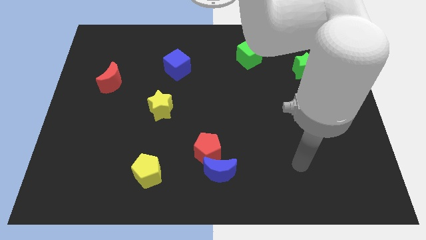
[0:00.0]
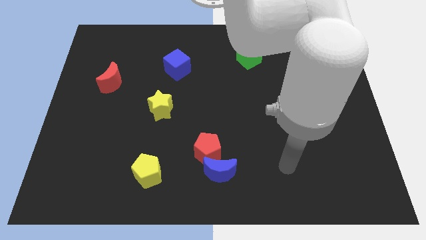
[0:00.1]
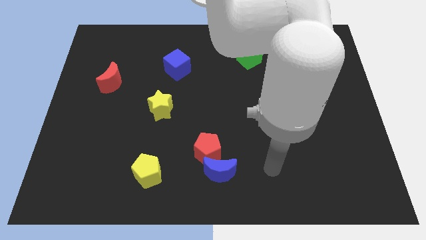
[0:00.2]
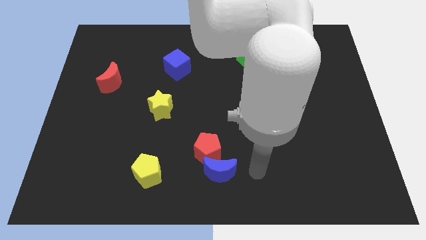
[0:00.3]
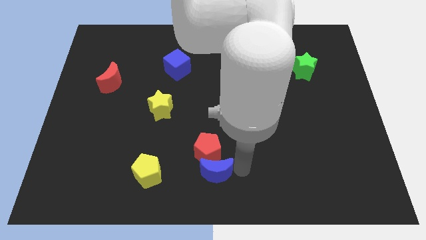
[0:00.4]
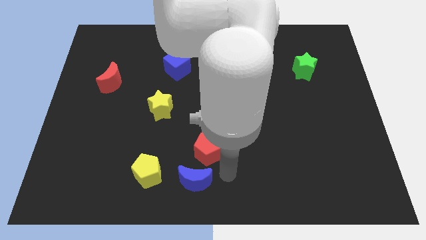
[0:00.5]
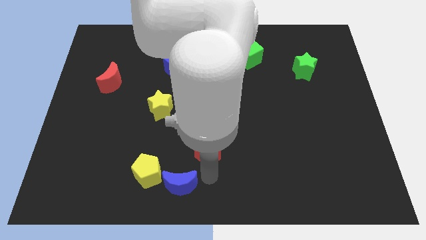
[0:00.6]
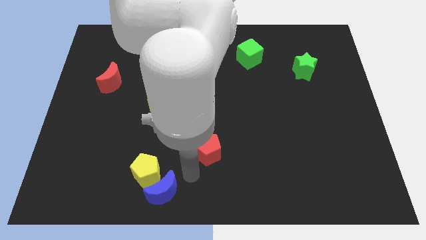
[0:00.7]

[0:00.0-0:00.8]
pull the red pentagon apart from the blue moon

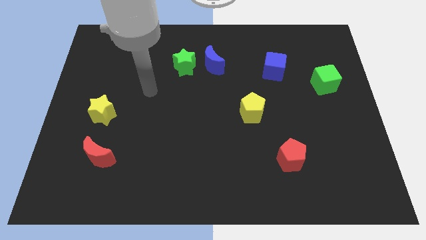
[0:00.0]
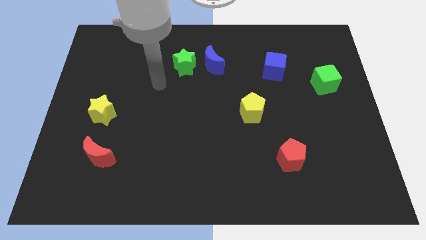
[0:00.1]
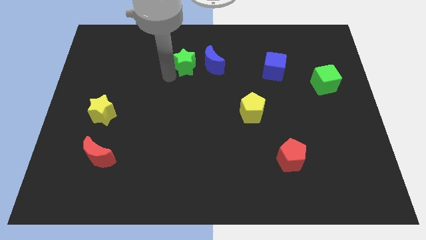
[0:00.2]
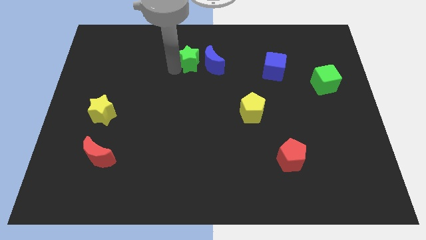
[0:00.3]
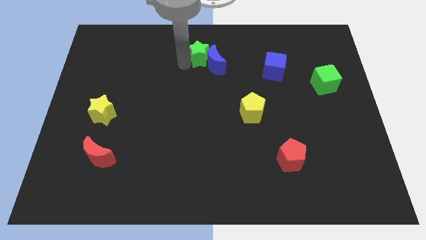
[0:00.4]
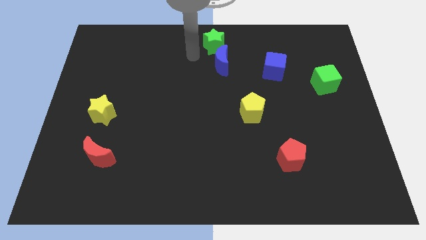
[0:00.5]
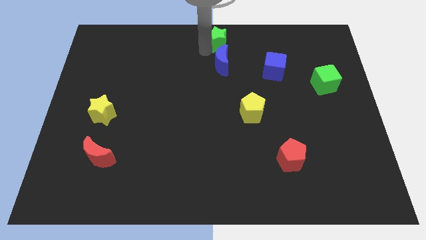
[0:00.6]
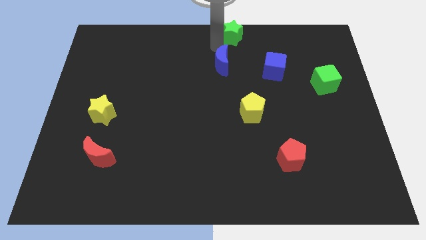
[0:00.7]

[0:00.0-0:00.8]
pull the blue moon apart from the green star

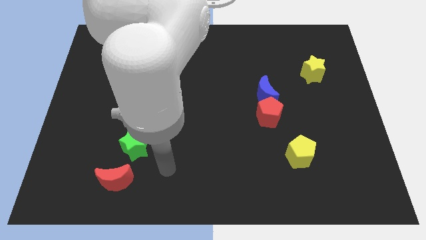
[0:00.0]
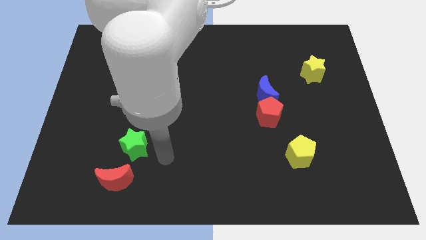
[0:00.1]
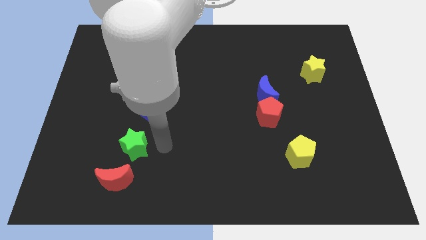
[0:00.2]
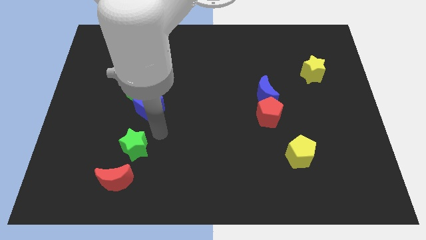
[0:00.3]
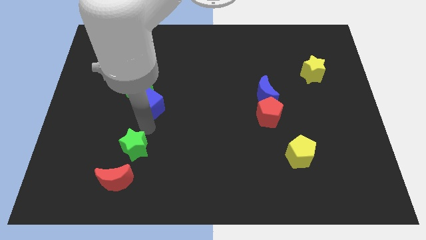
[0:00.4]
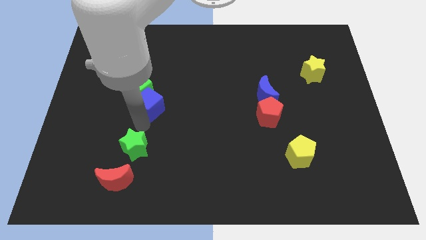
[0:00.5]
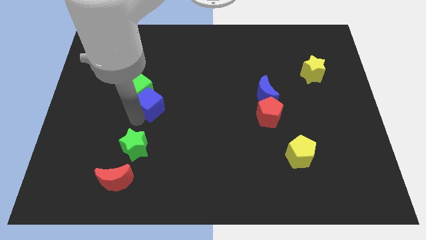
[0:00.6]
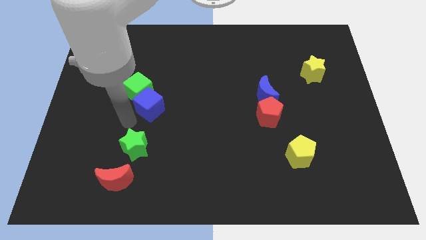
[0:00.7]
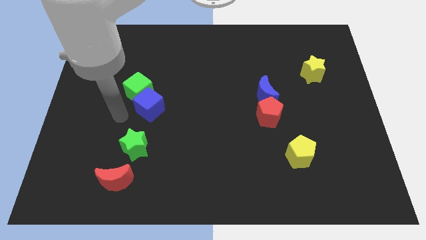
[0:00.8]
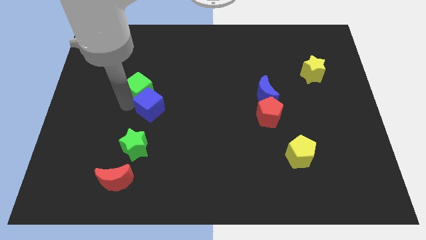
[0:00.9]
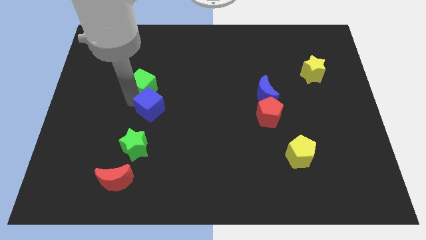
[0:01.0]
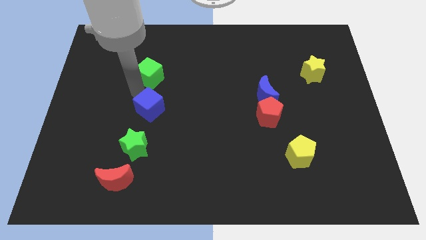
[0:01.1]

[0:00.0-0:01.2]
separate the blue cube from the green cube

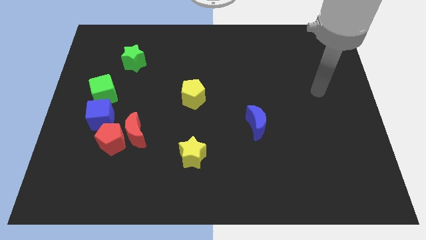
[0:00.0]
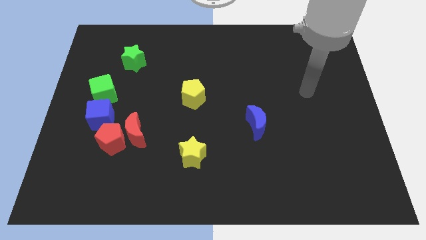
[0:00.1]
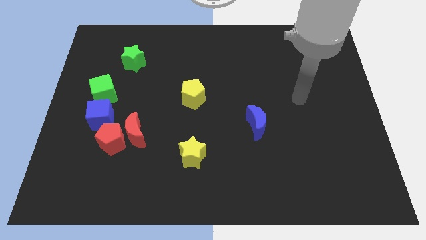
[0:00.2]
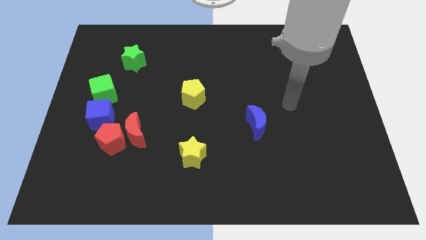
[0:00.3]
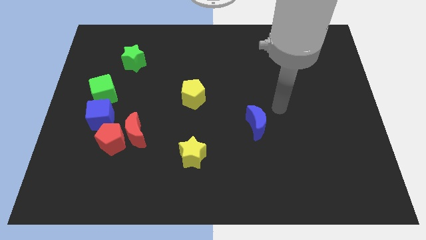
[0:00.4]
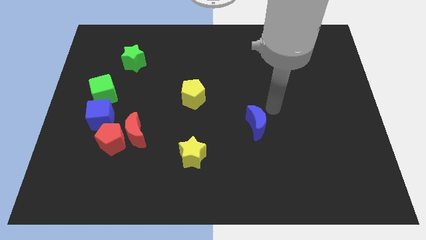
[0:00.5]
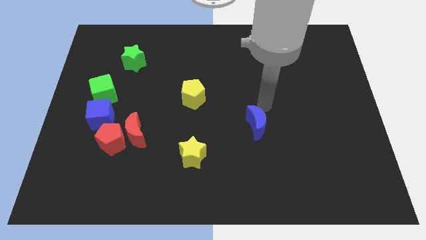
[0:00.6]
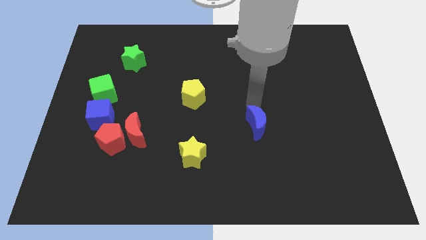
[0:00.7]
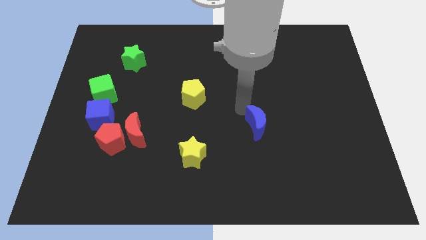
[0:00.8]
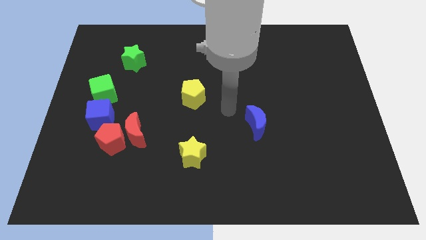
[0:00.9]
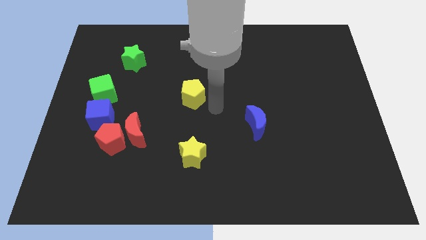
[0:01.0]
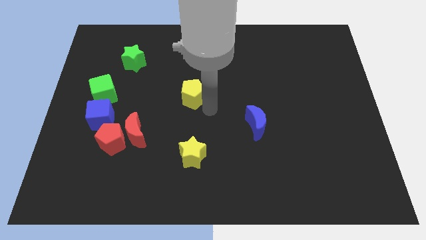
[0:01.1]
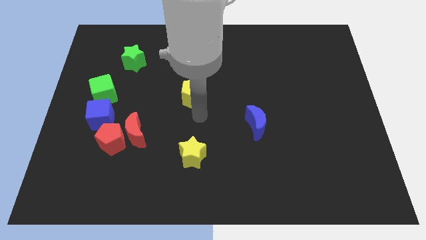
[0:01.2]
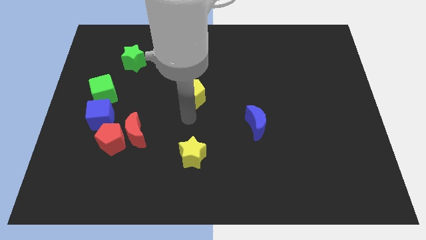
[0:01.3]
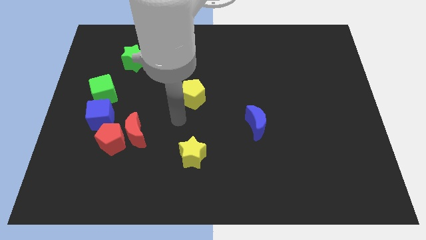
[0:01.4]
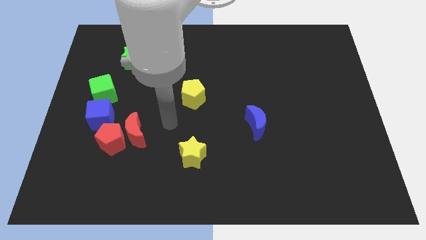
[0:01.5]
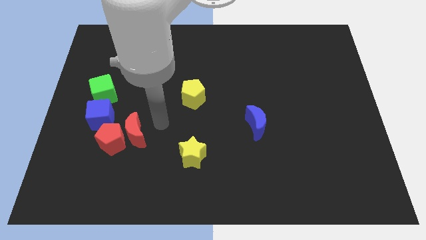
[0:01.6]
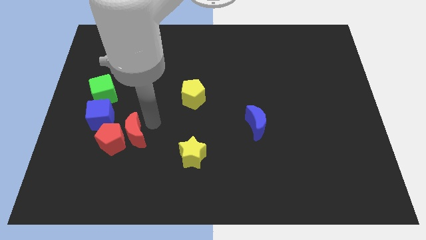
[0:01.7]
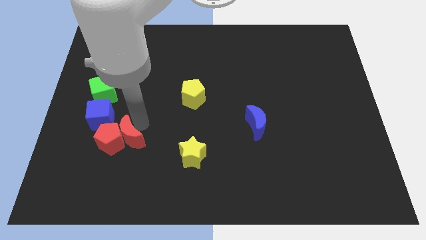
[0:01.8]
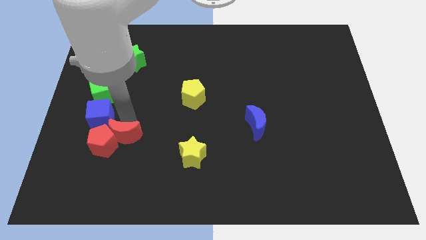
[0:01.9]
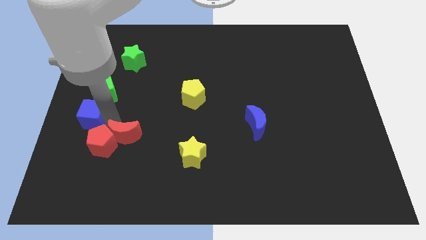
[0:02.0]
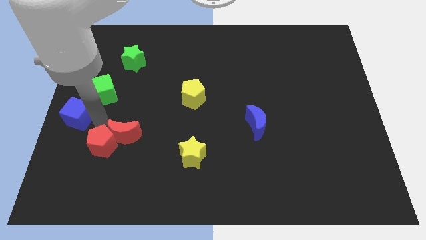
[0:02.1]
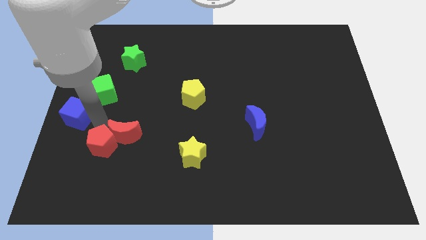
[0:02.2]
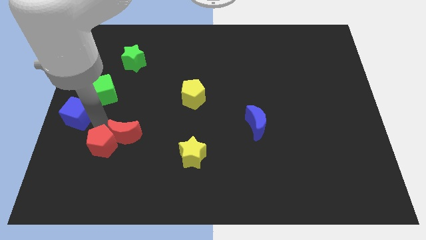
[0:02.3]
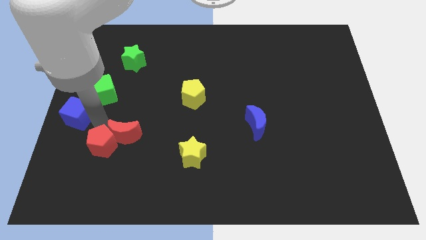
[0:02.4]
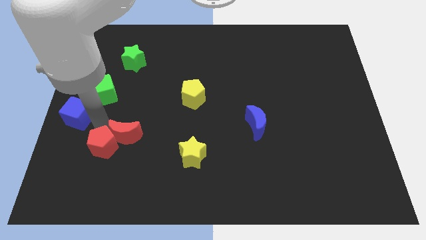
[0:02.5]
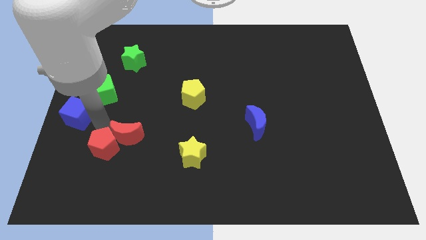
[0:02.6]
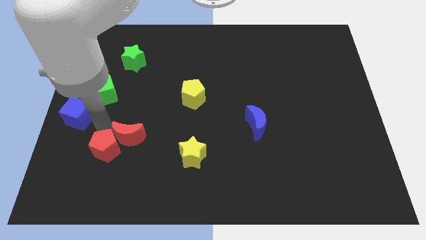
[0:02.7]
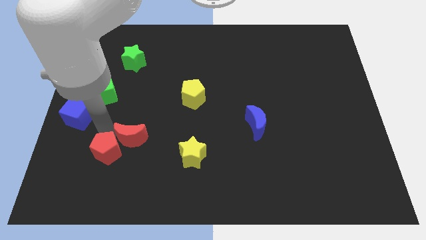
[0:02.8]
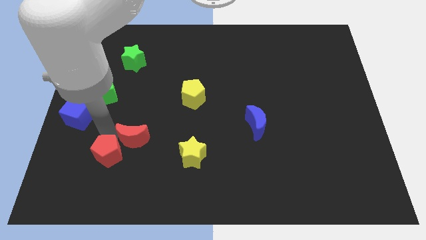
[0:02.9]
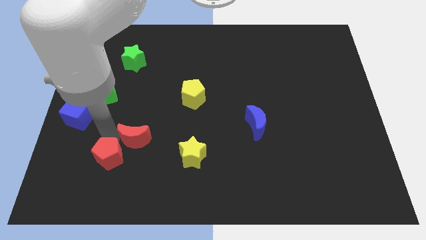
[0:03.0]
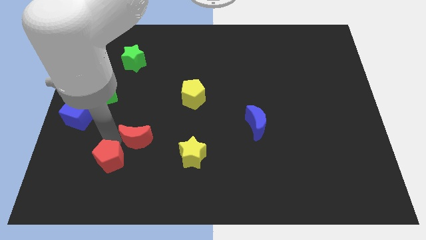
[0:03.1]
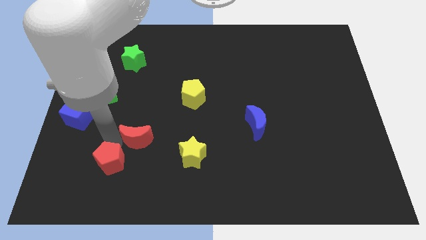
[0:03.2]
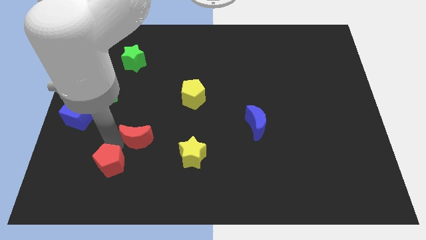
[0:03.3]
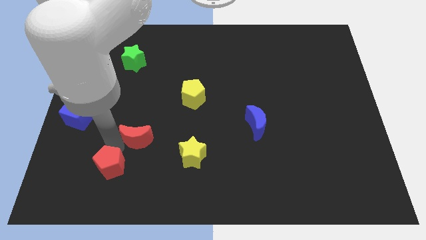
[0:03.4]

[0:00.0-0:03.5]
separate the red pentagon from the red moon and blue cube

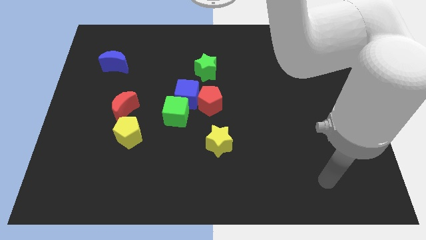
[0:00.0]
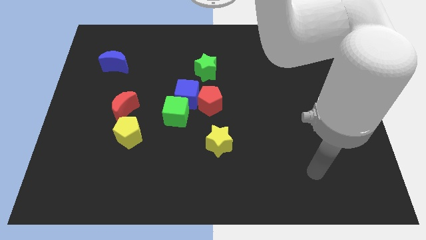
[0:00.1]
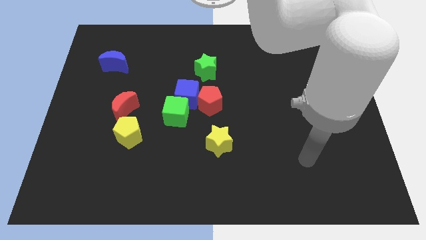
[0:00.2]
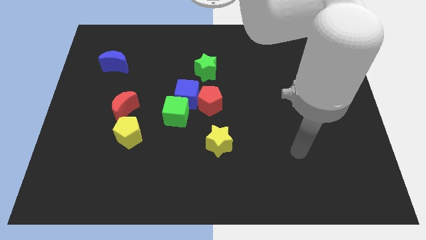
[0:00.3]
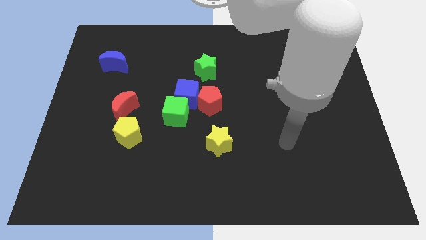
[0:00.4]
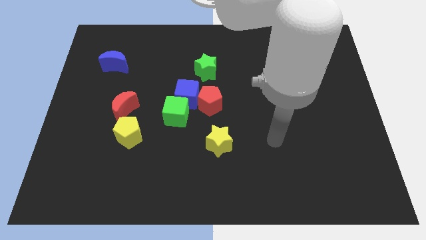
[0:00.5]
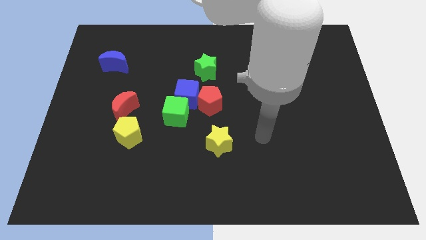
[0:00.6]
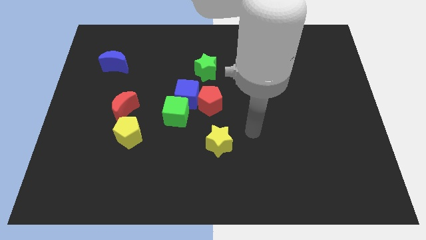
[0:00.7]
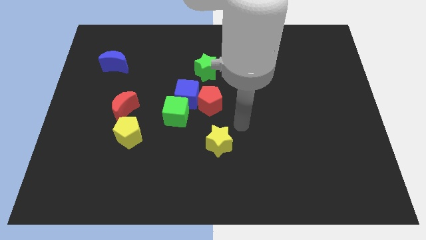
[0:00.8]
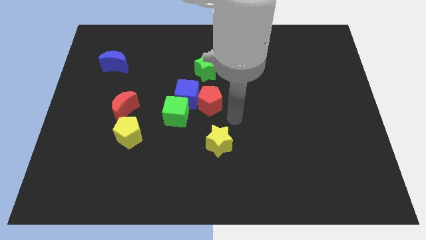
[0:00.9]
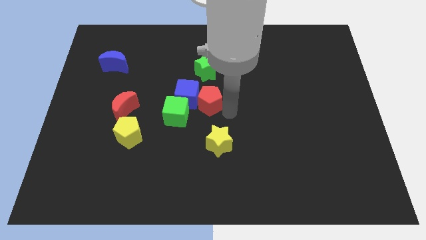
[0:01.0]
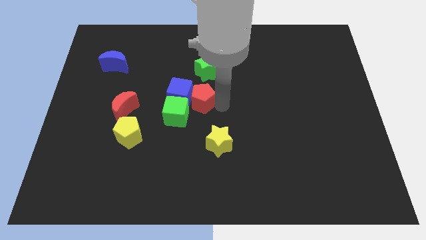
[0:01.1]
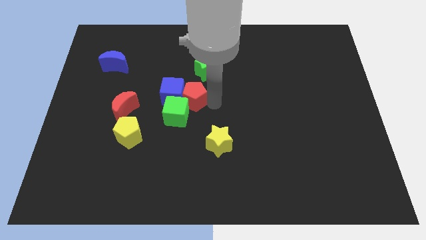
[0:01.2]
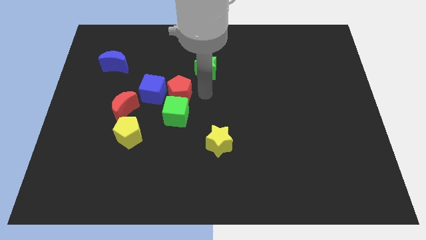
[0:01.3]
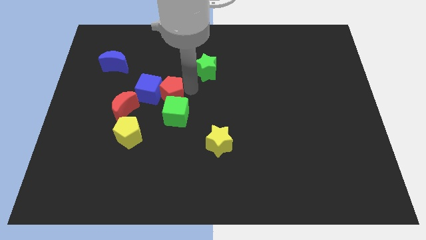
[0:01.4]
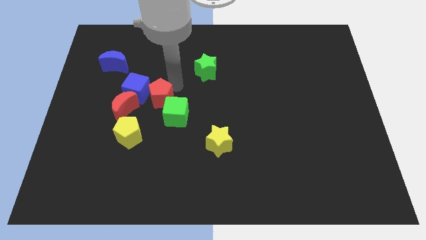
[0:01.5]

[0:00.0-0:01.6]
separate the blue cube from the green cube, red pentagon, and green star

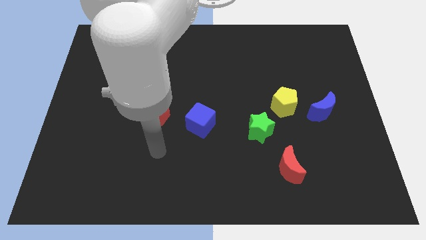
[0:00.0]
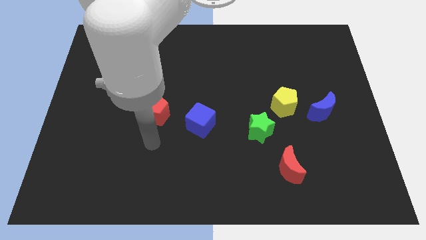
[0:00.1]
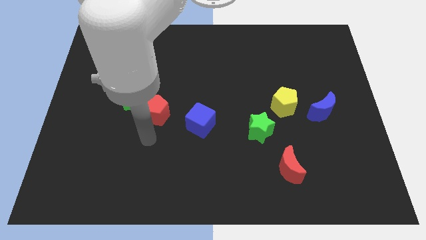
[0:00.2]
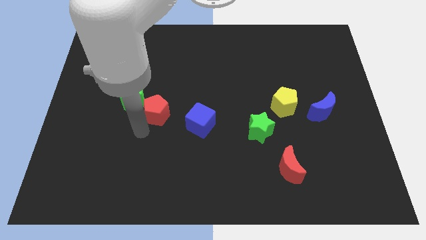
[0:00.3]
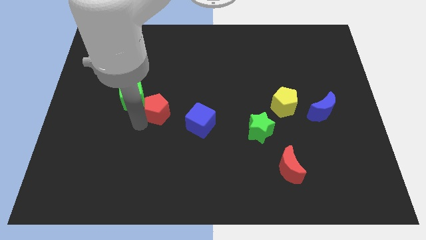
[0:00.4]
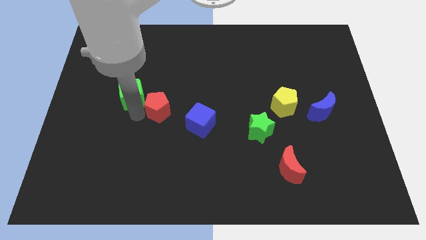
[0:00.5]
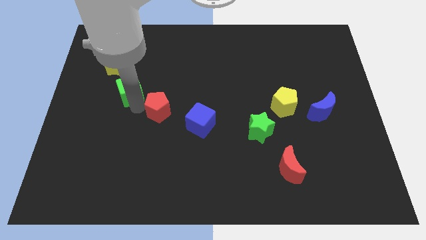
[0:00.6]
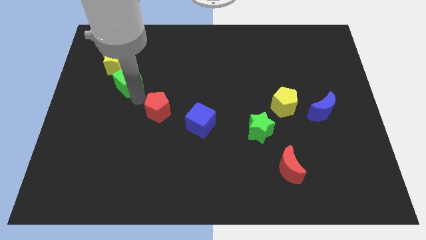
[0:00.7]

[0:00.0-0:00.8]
separate the red pentagon from the green cube

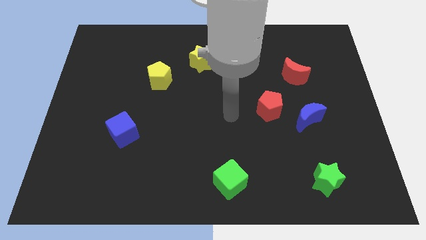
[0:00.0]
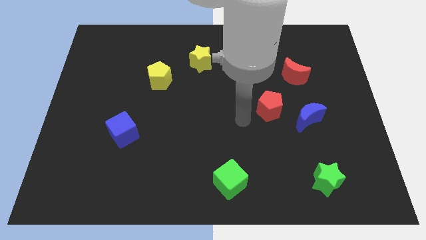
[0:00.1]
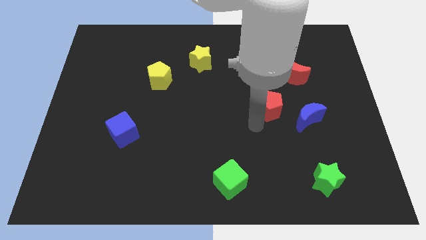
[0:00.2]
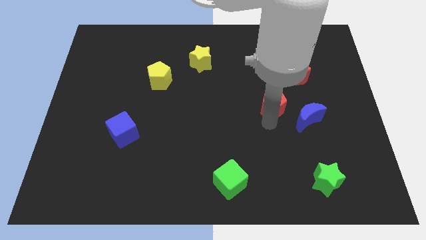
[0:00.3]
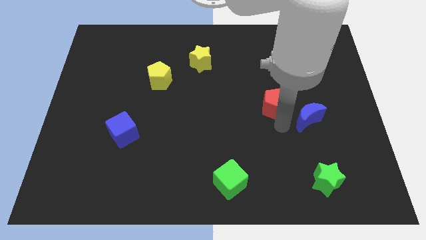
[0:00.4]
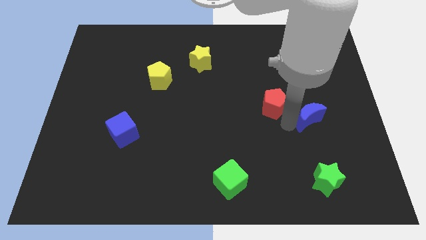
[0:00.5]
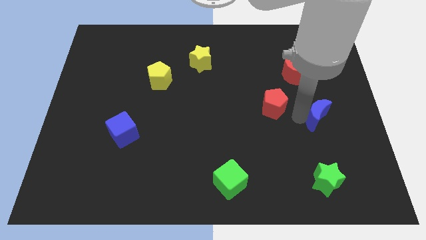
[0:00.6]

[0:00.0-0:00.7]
separate the red pentagon from the blue moon
